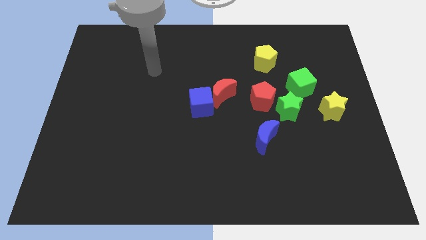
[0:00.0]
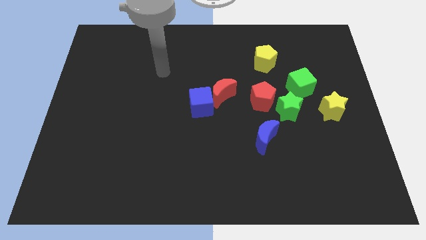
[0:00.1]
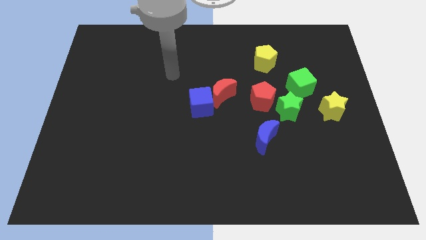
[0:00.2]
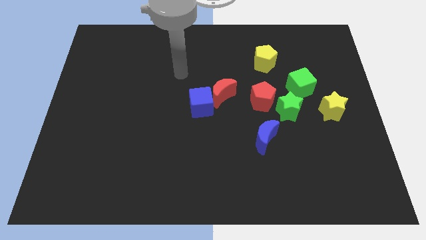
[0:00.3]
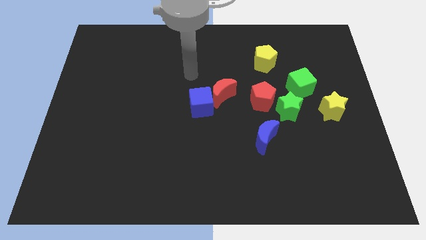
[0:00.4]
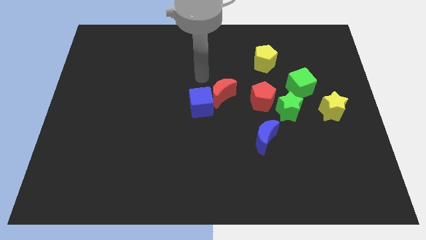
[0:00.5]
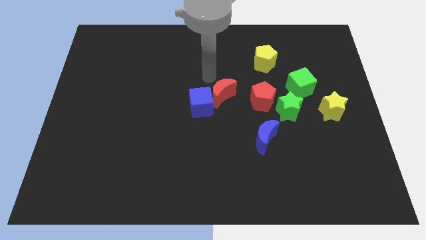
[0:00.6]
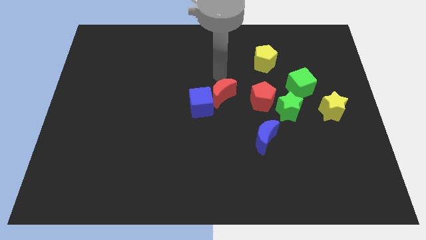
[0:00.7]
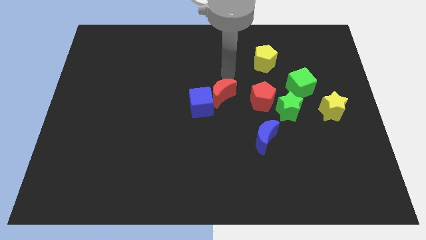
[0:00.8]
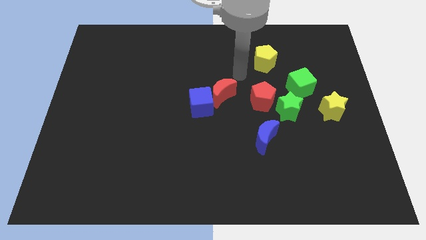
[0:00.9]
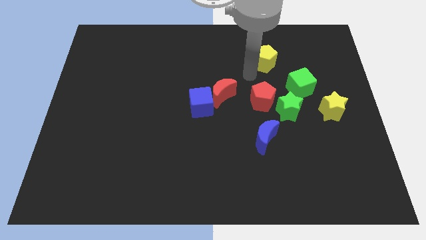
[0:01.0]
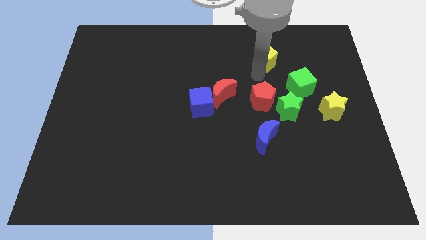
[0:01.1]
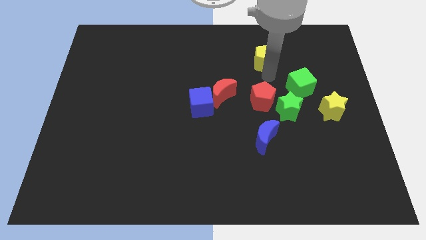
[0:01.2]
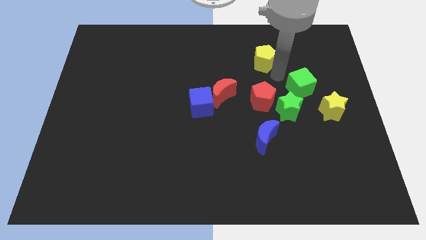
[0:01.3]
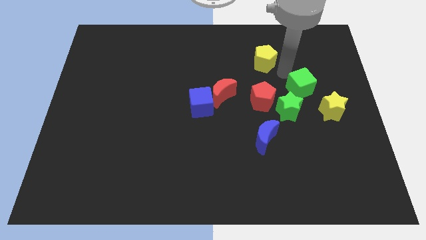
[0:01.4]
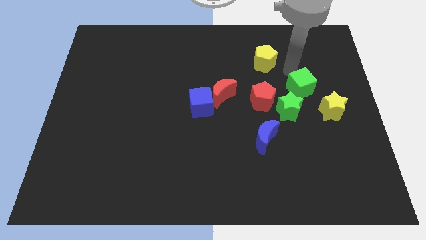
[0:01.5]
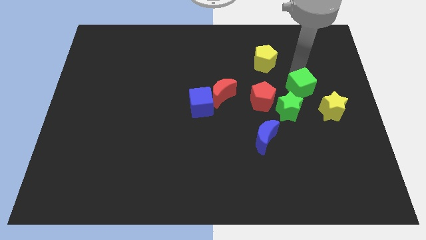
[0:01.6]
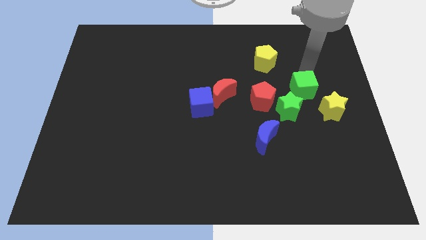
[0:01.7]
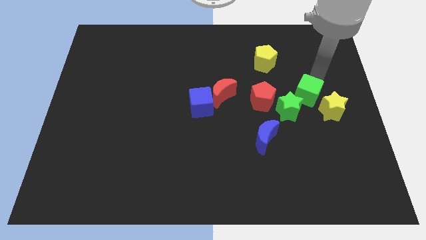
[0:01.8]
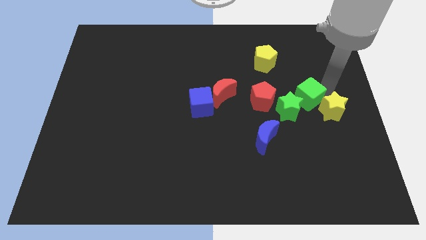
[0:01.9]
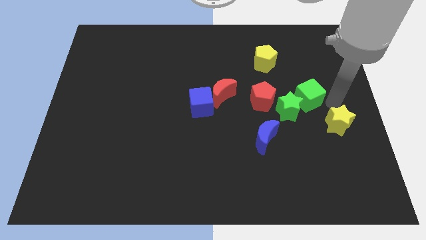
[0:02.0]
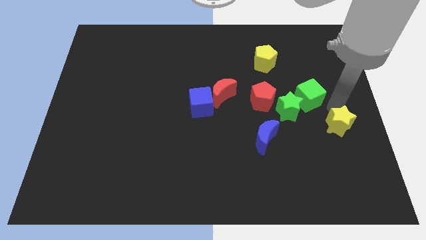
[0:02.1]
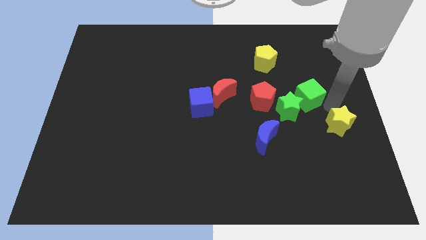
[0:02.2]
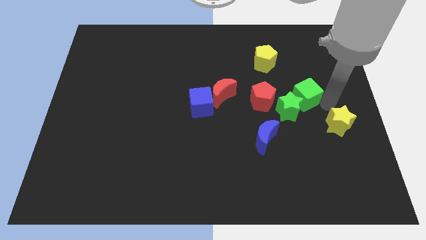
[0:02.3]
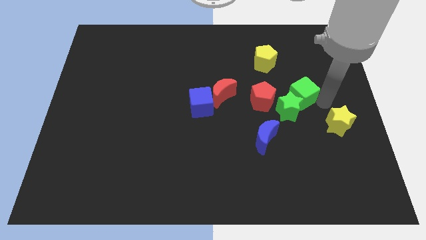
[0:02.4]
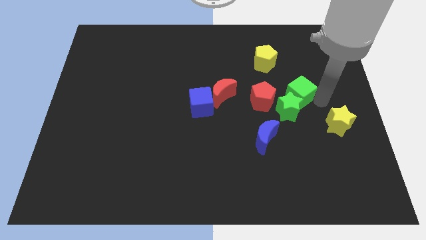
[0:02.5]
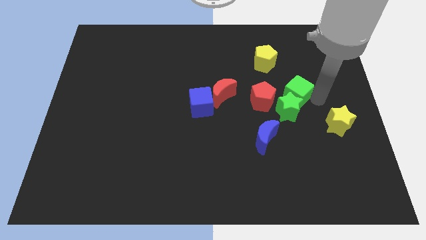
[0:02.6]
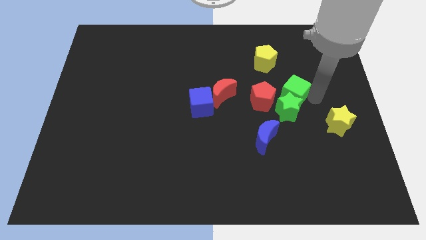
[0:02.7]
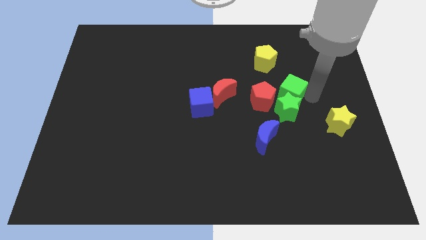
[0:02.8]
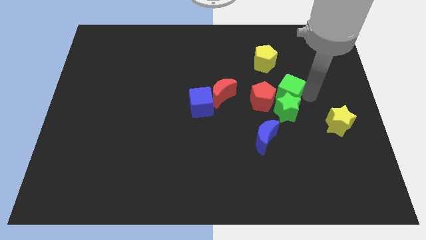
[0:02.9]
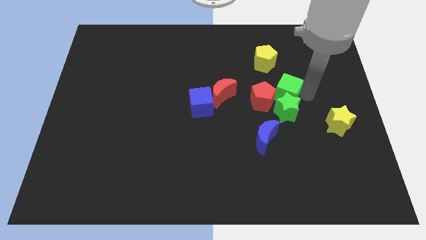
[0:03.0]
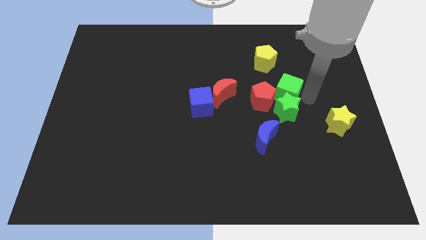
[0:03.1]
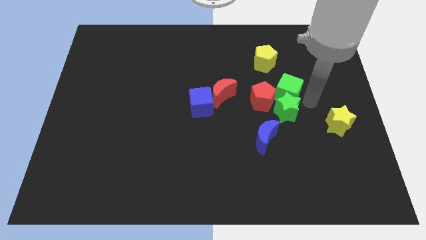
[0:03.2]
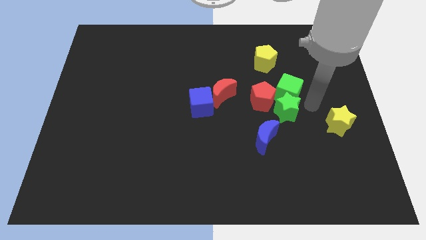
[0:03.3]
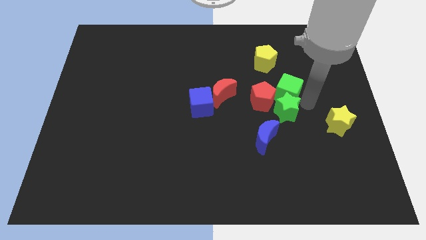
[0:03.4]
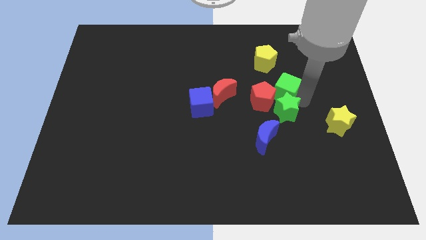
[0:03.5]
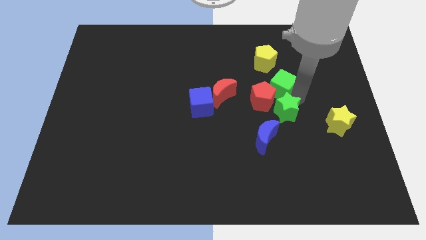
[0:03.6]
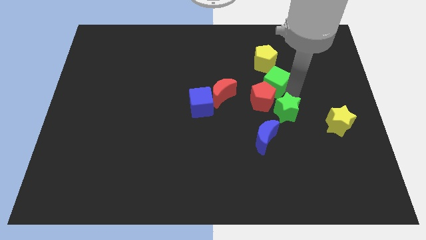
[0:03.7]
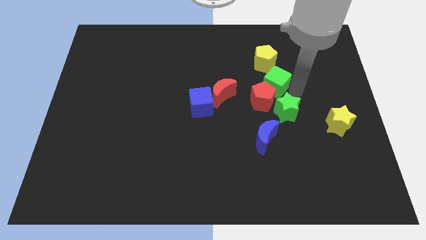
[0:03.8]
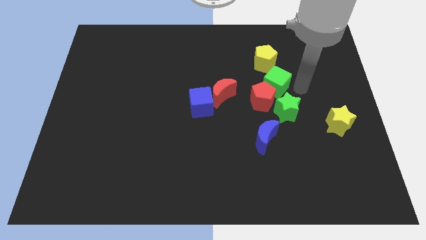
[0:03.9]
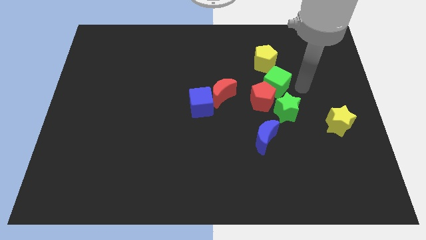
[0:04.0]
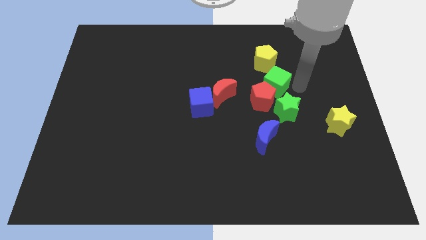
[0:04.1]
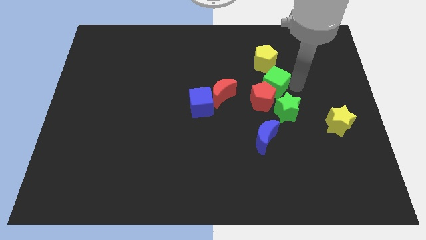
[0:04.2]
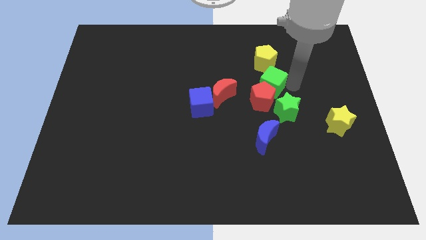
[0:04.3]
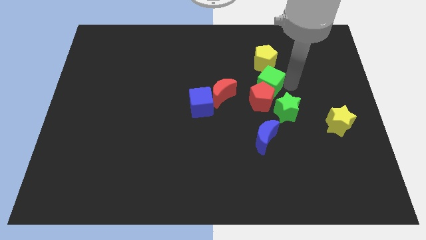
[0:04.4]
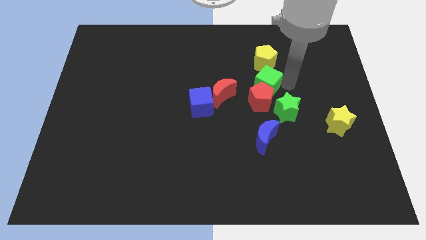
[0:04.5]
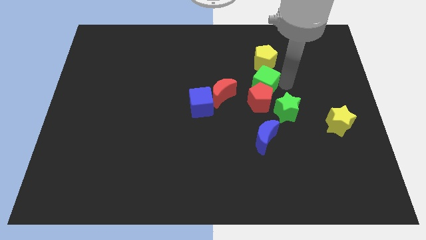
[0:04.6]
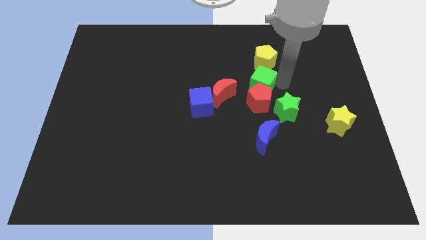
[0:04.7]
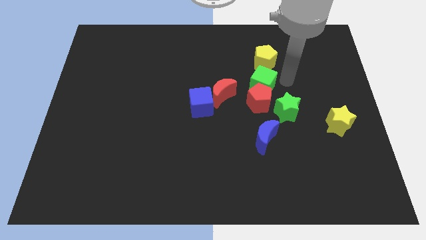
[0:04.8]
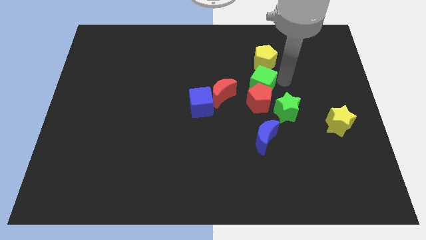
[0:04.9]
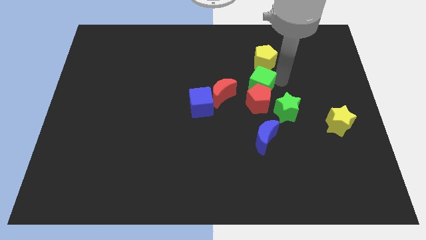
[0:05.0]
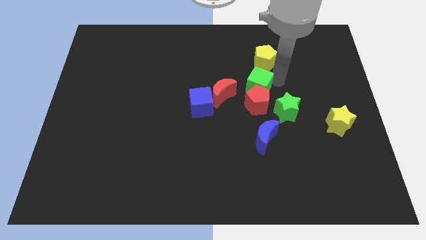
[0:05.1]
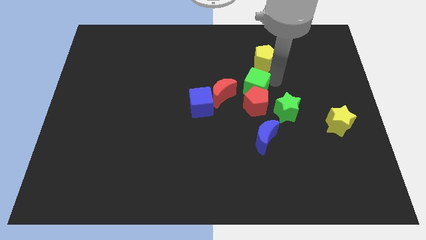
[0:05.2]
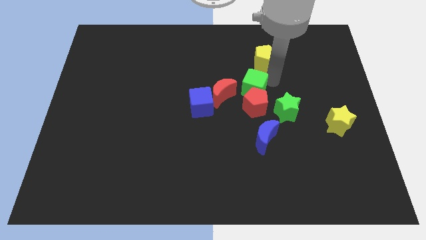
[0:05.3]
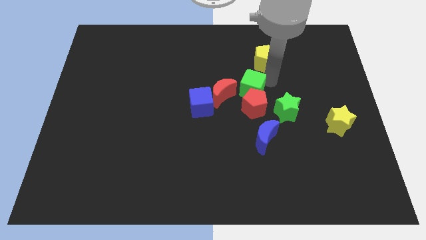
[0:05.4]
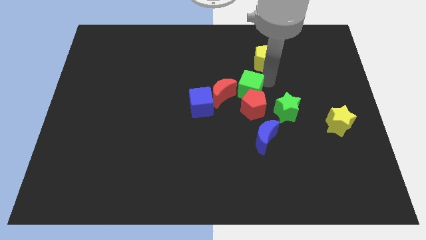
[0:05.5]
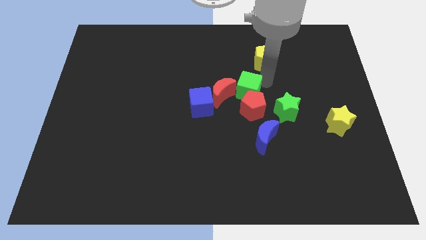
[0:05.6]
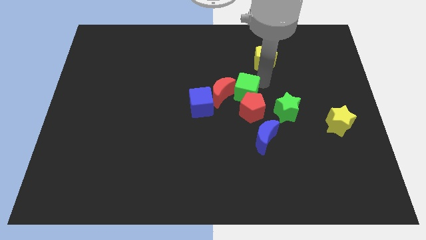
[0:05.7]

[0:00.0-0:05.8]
push the green cube close to the red moon

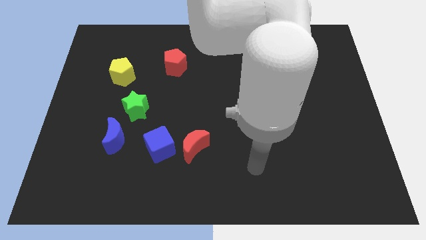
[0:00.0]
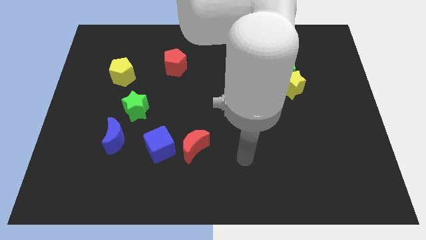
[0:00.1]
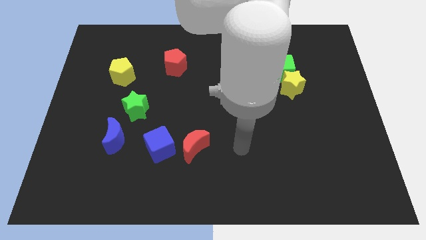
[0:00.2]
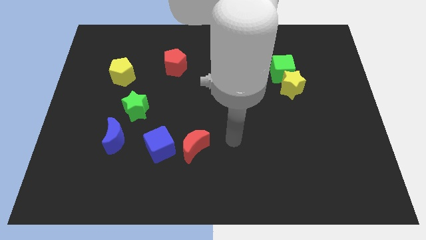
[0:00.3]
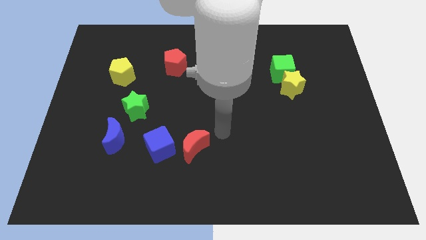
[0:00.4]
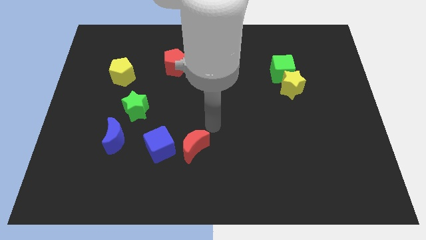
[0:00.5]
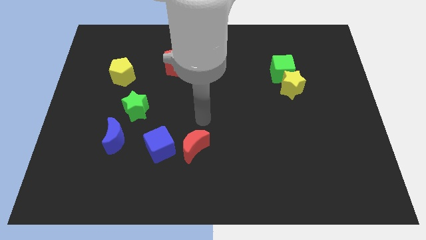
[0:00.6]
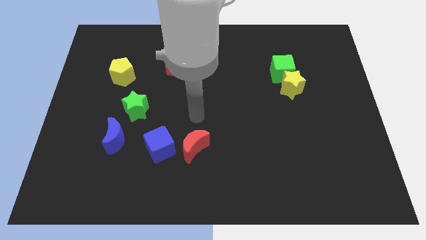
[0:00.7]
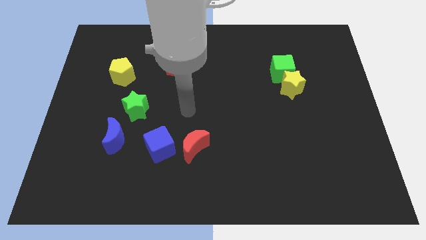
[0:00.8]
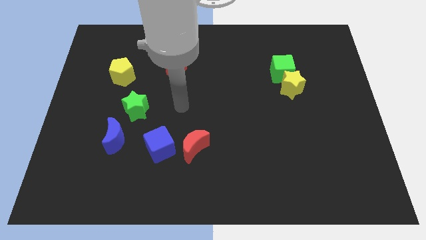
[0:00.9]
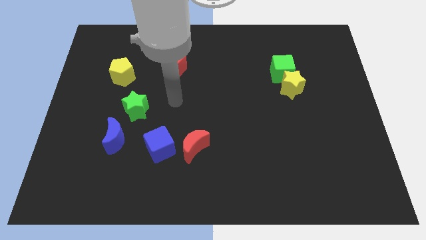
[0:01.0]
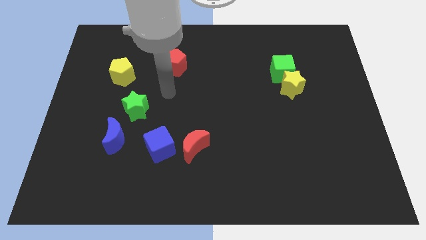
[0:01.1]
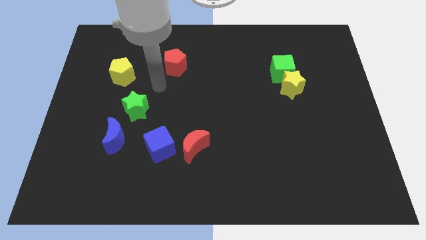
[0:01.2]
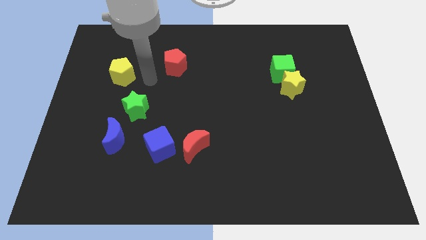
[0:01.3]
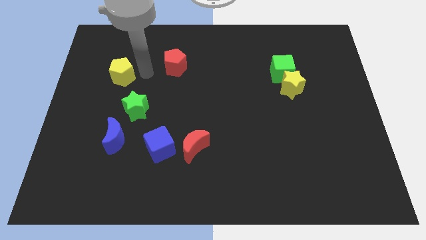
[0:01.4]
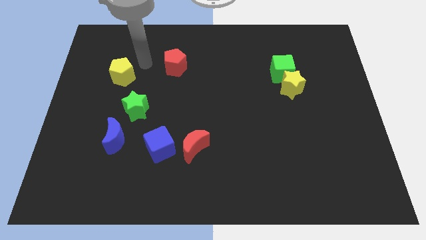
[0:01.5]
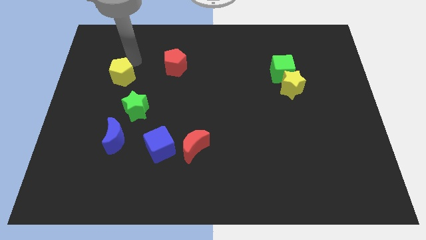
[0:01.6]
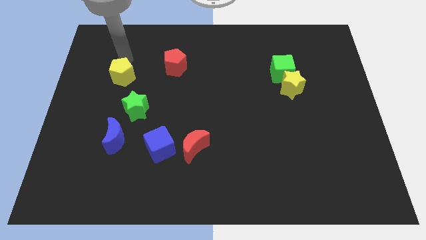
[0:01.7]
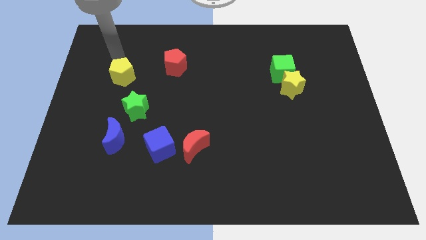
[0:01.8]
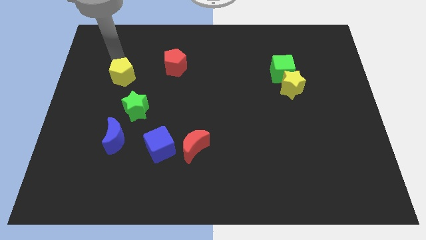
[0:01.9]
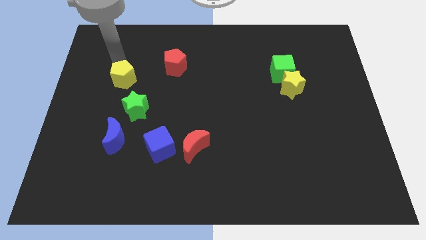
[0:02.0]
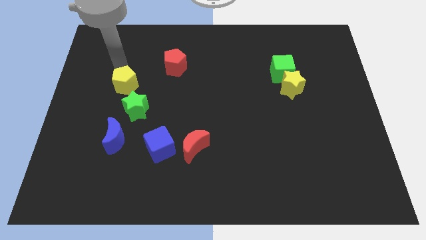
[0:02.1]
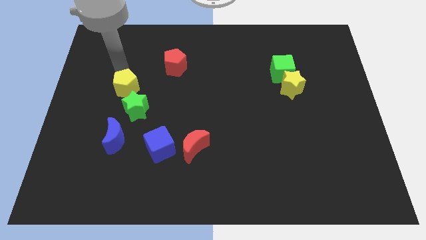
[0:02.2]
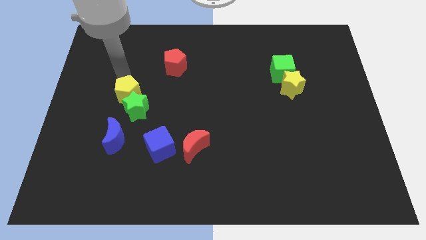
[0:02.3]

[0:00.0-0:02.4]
put the yellow pentagon close to the green star
